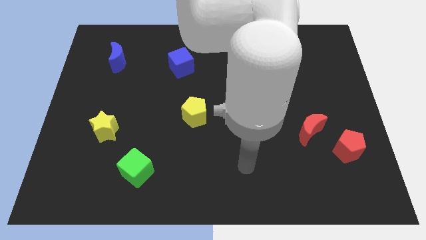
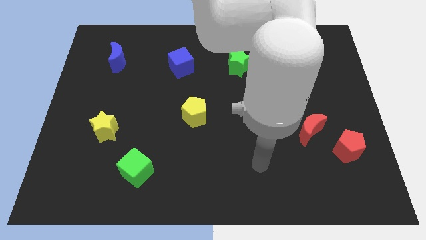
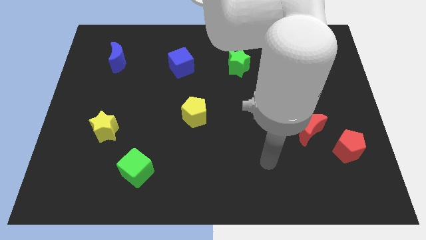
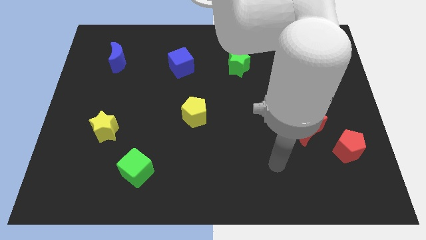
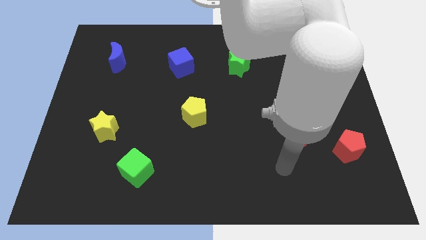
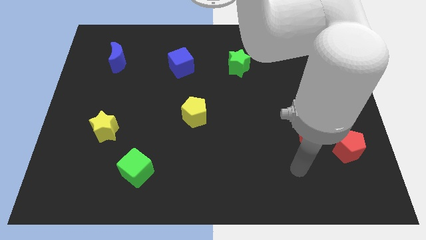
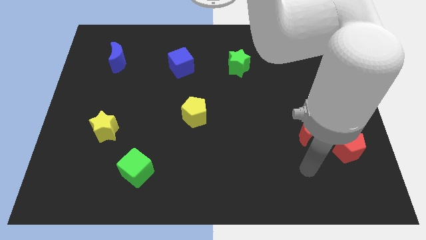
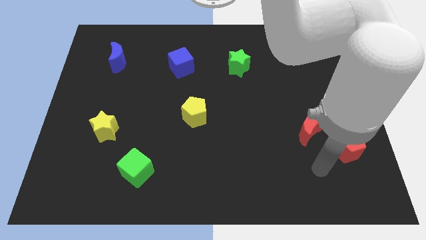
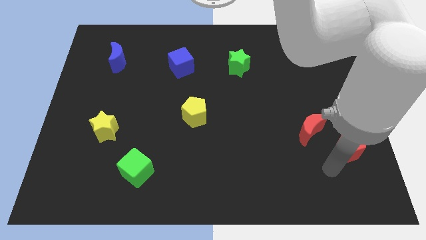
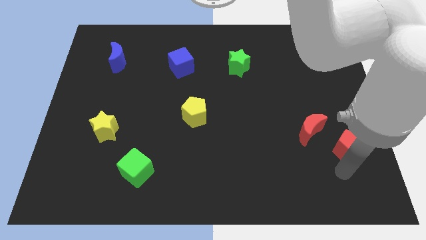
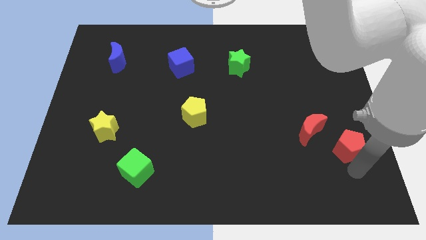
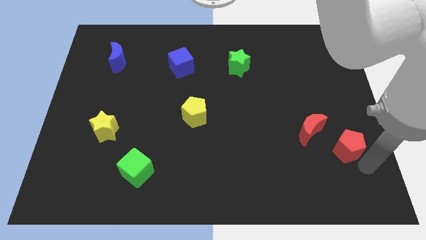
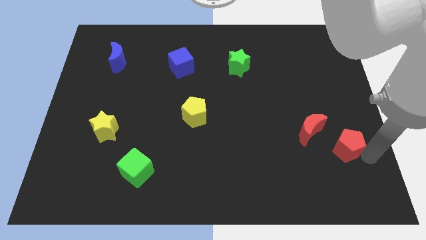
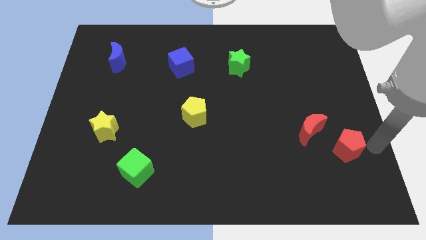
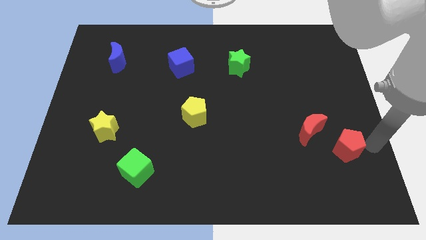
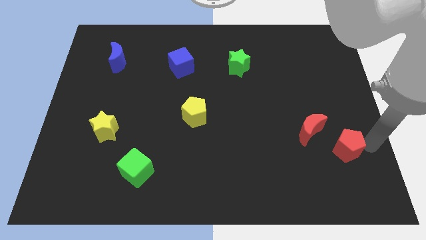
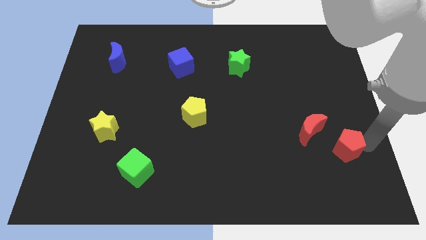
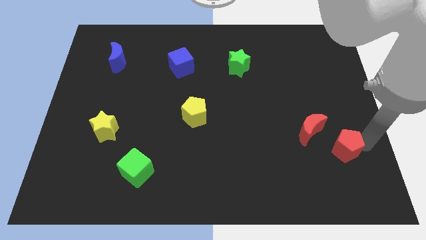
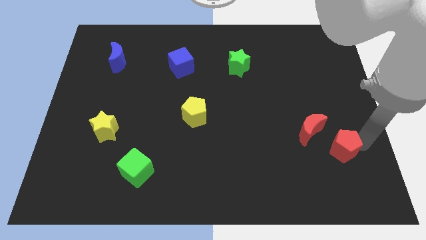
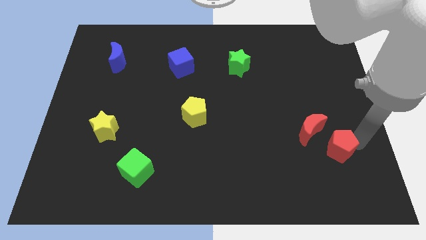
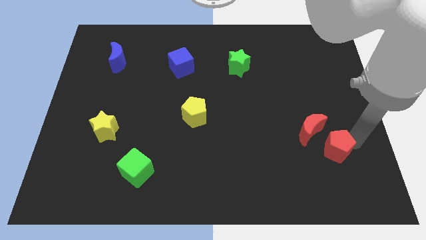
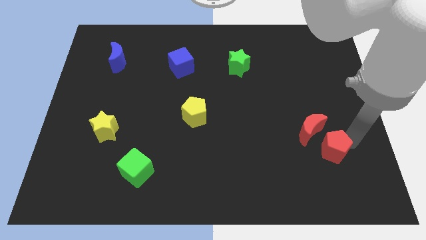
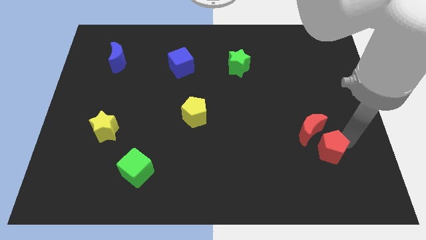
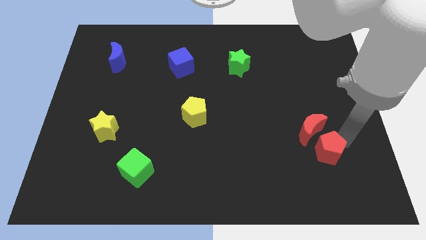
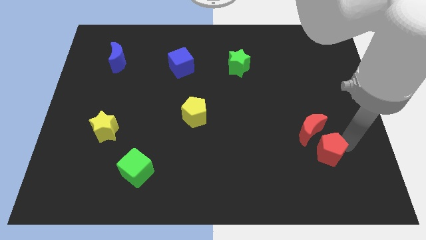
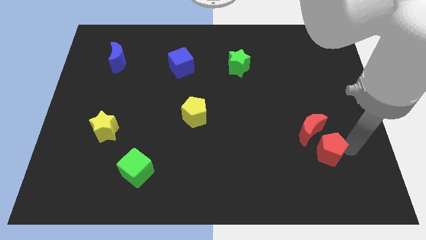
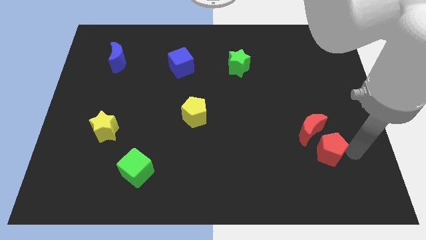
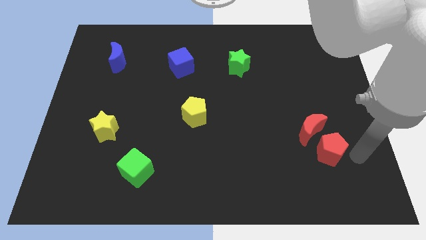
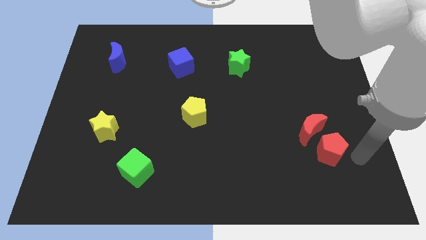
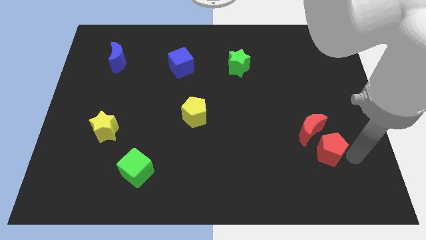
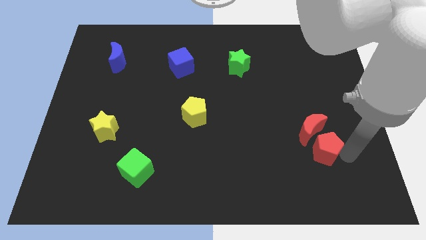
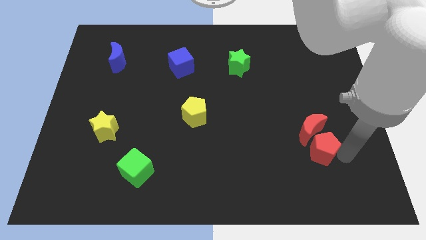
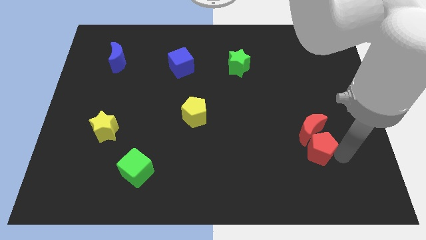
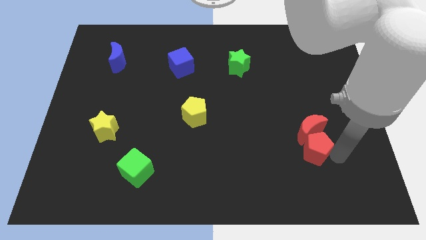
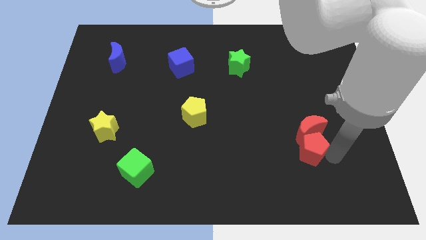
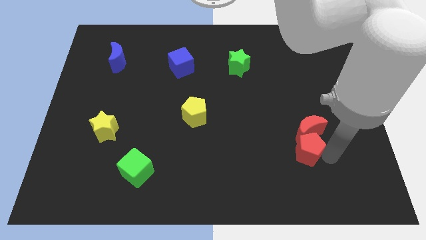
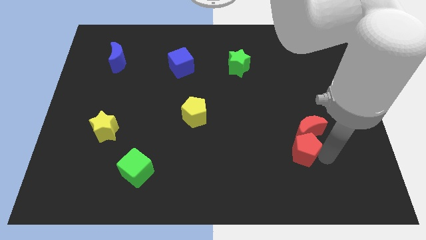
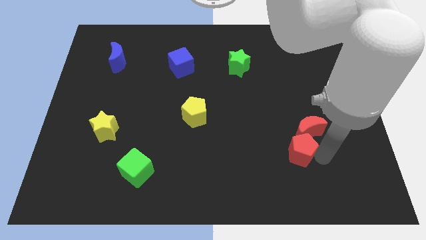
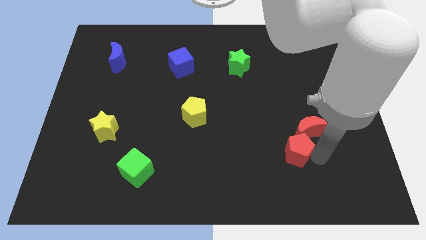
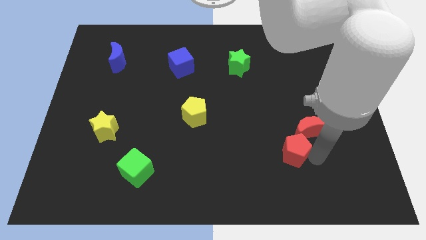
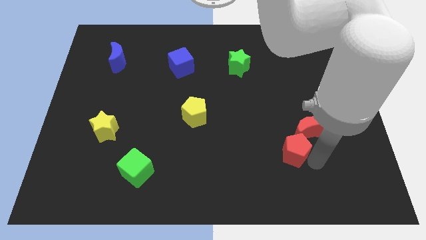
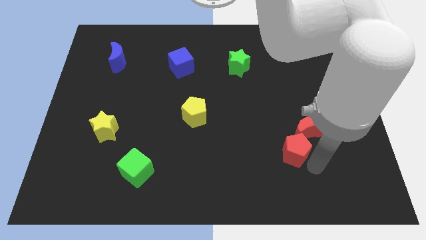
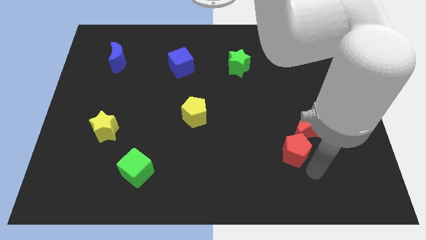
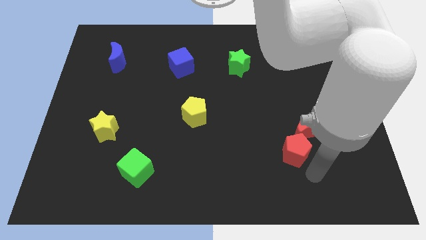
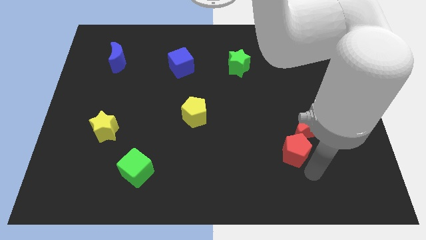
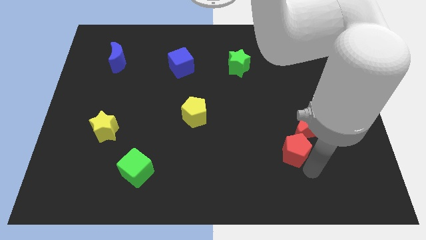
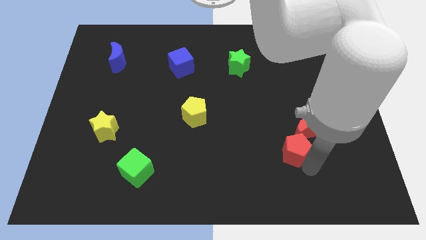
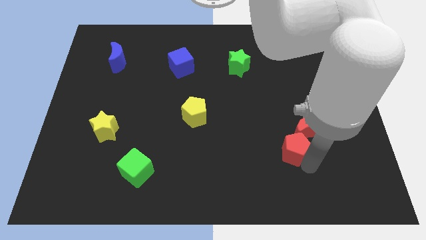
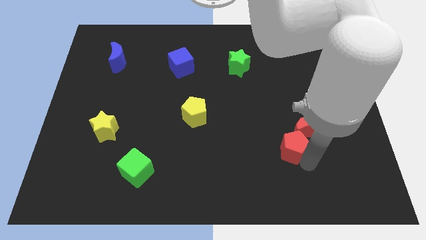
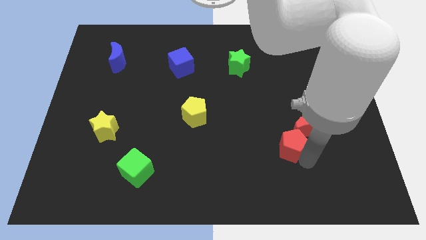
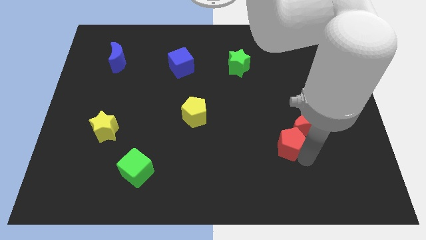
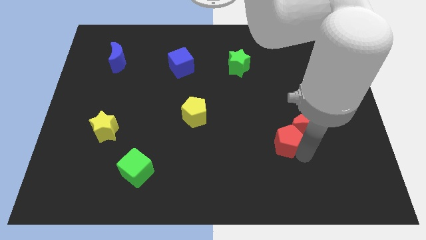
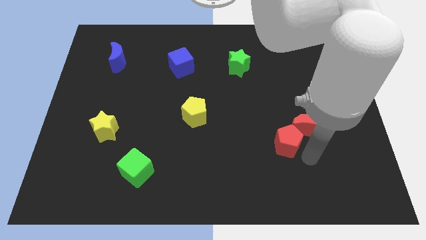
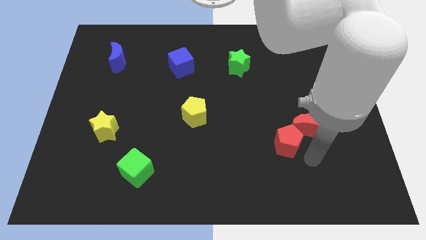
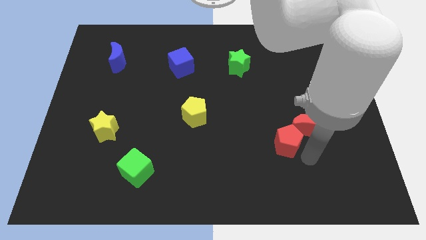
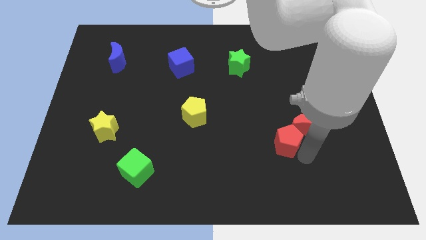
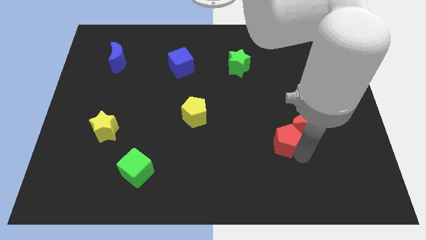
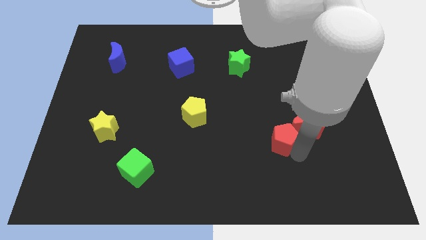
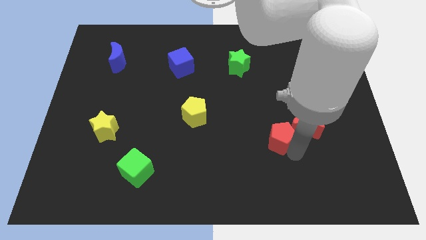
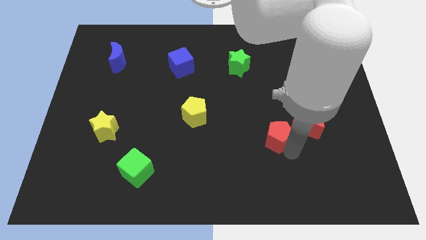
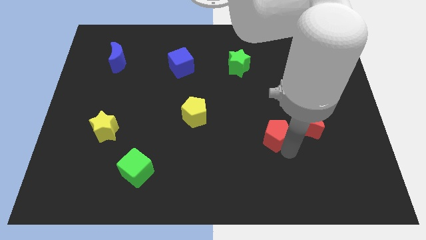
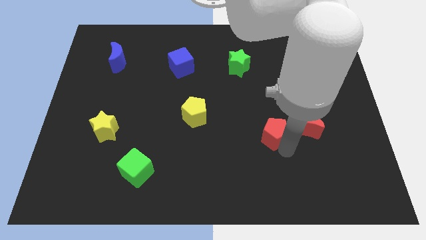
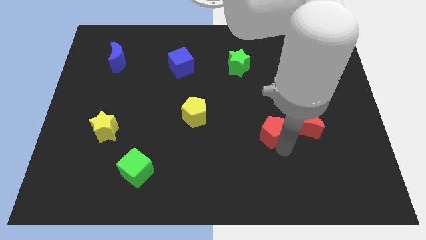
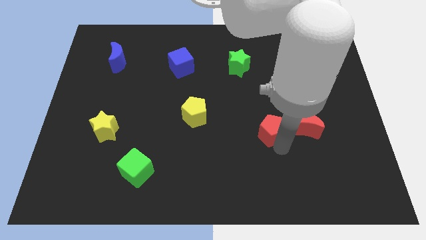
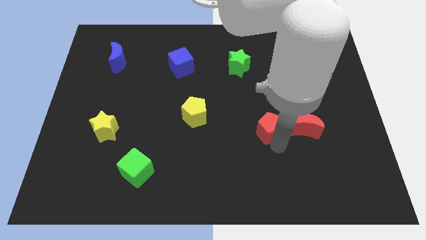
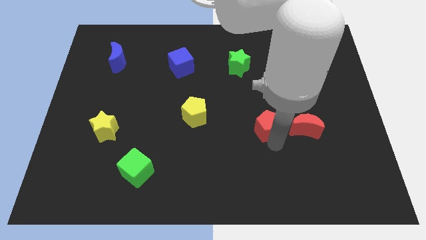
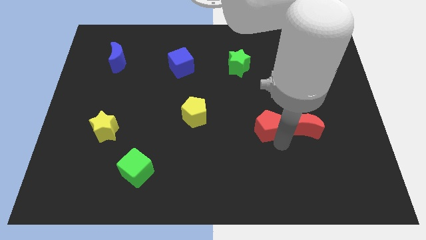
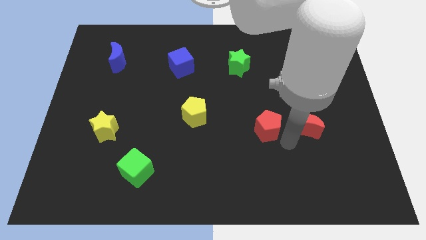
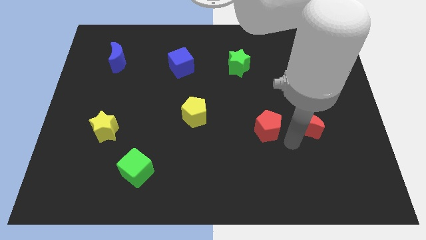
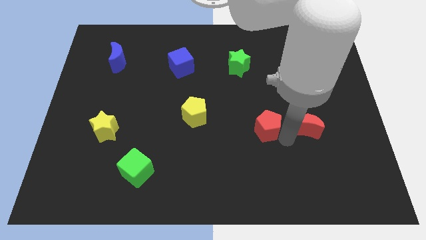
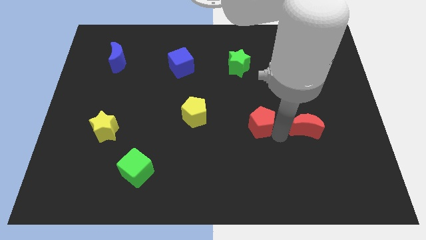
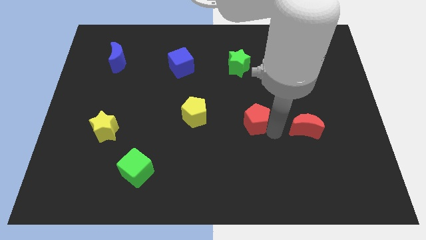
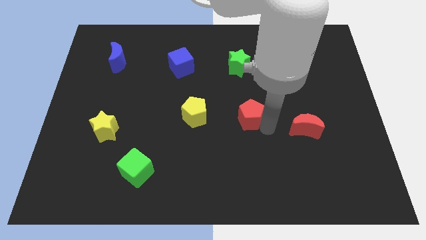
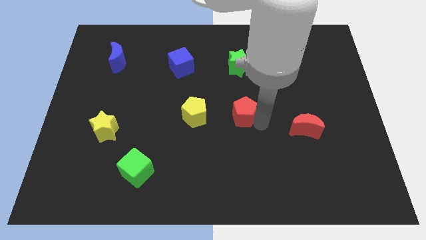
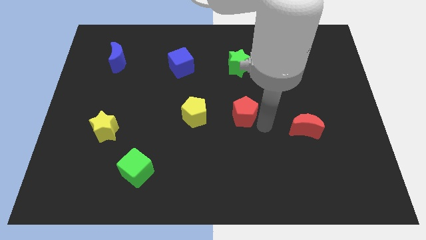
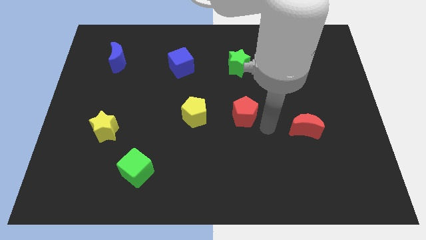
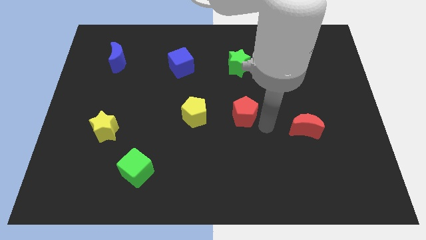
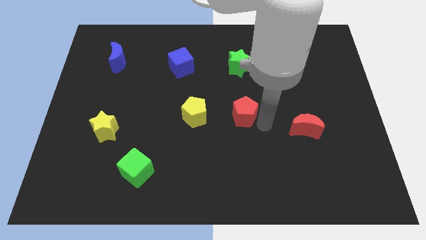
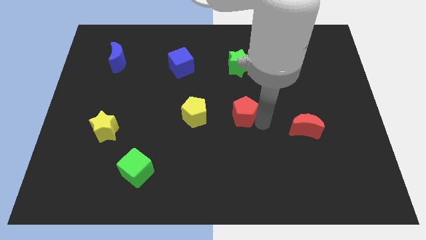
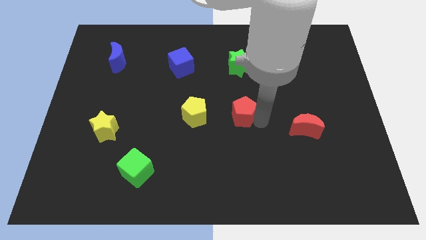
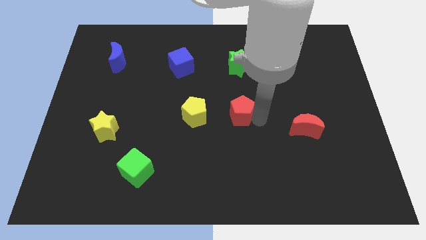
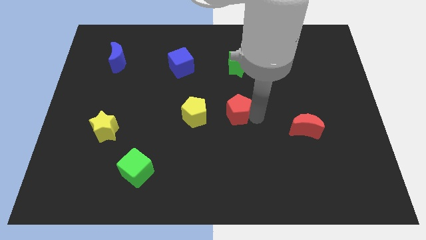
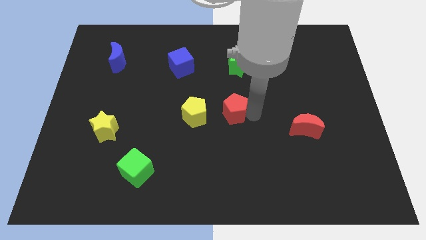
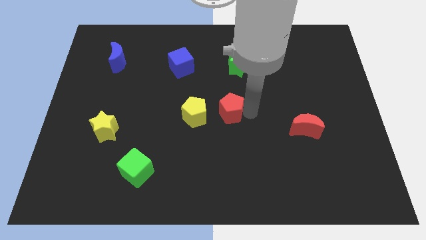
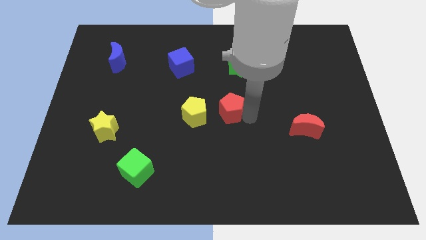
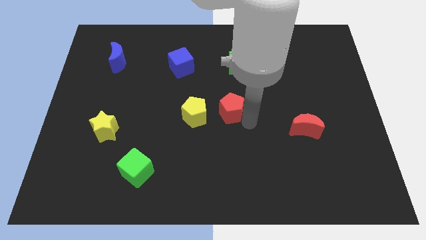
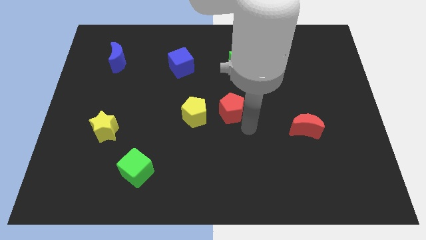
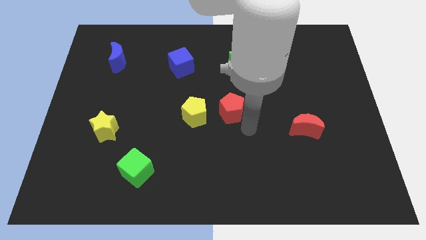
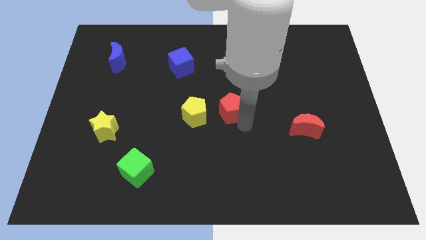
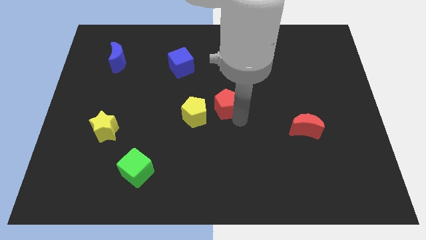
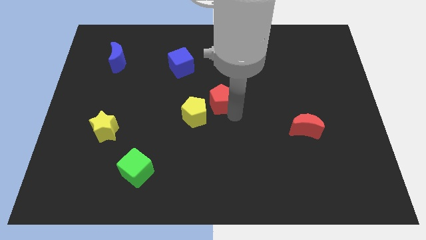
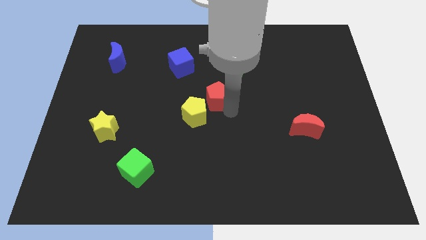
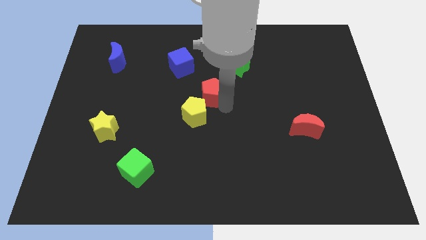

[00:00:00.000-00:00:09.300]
put the red pentagon diagonally down and to the right of the blue cube
